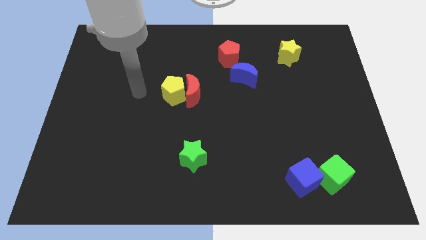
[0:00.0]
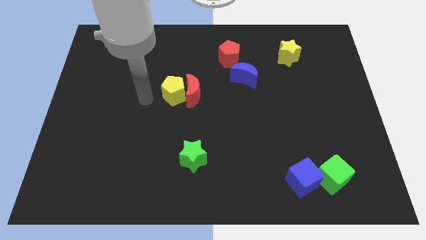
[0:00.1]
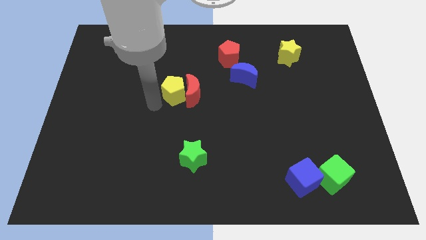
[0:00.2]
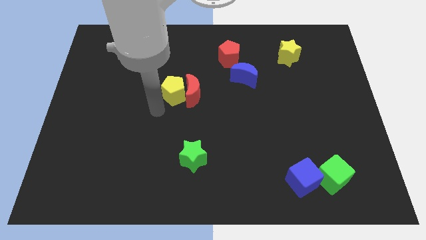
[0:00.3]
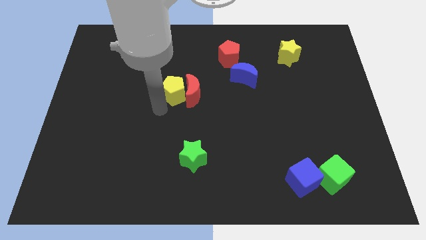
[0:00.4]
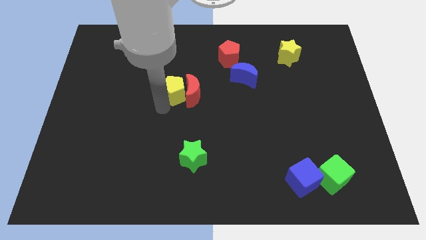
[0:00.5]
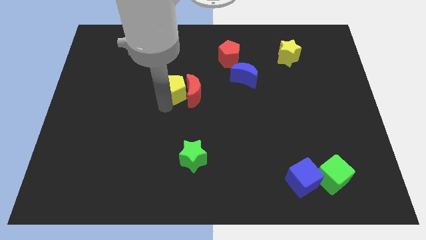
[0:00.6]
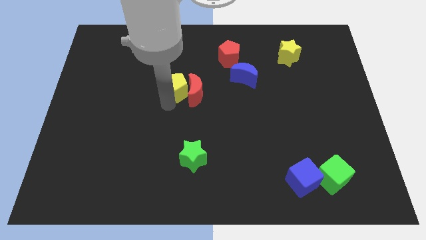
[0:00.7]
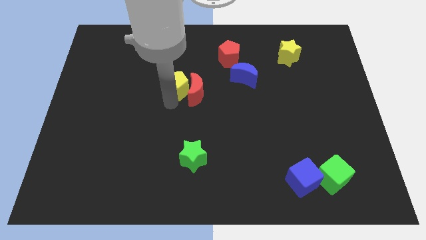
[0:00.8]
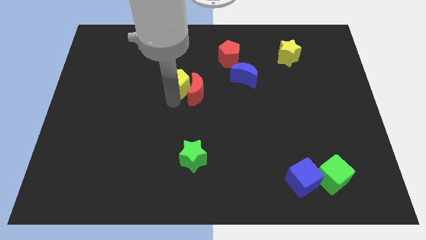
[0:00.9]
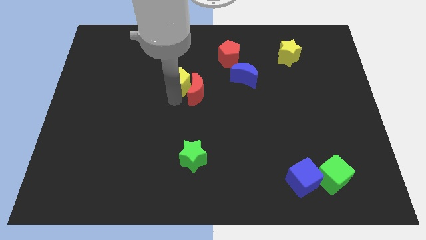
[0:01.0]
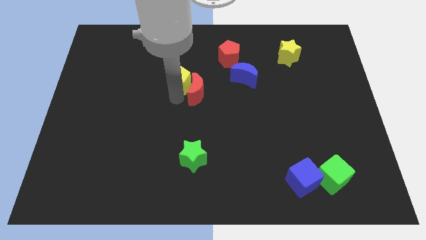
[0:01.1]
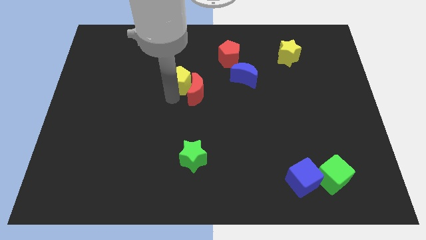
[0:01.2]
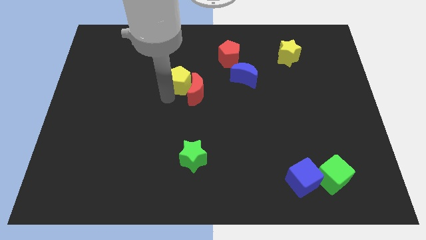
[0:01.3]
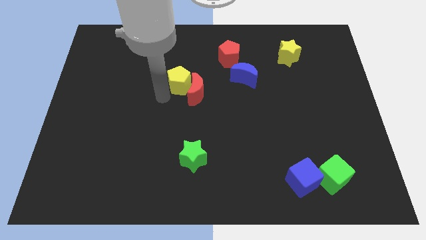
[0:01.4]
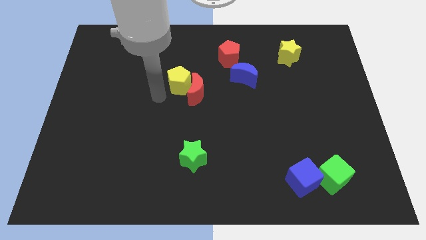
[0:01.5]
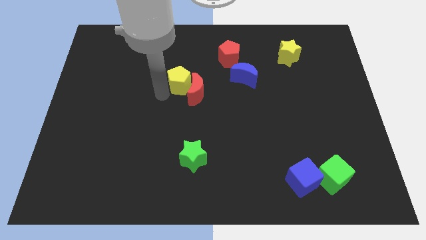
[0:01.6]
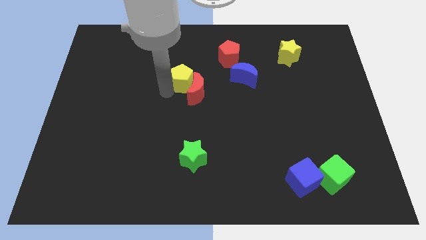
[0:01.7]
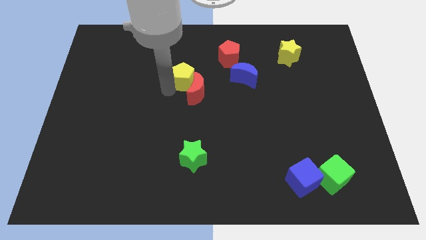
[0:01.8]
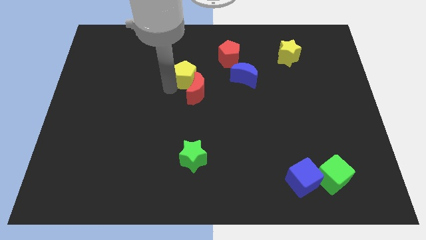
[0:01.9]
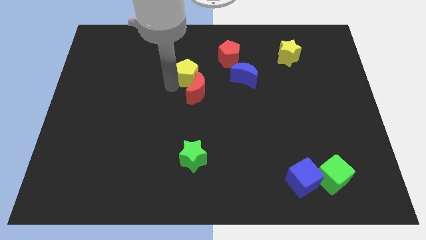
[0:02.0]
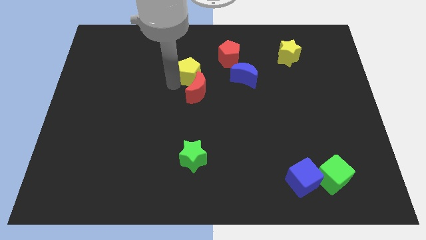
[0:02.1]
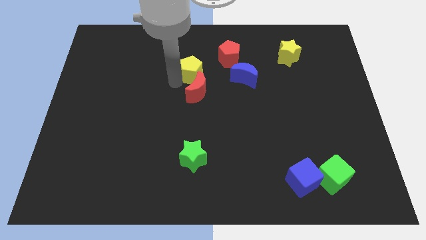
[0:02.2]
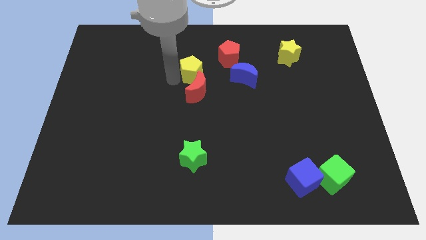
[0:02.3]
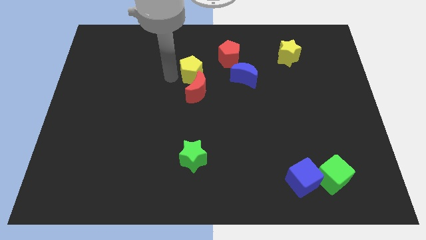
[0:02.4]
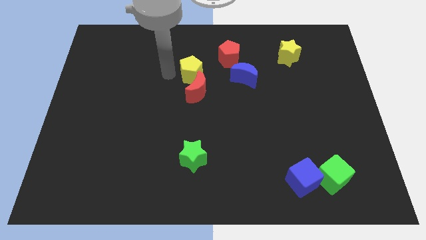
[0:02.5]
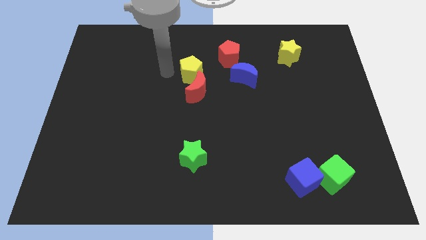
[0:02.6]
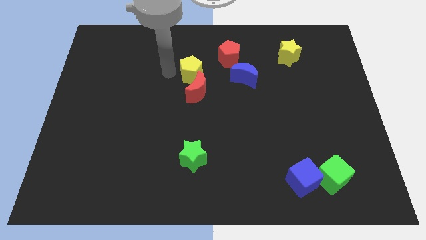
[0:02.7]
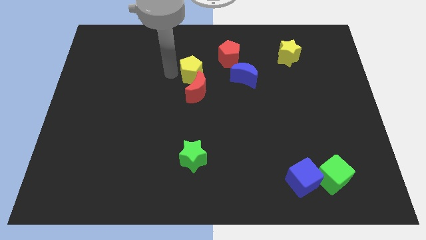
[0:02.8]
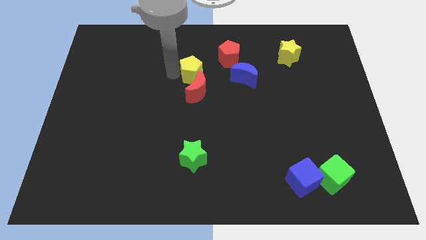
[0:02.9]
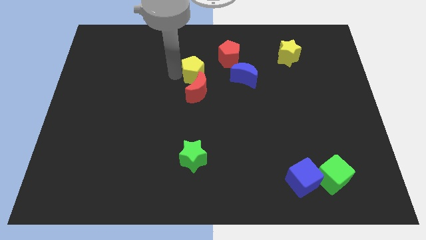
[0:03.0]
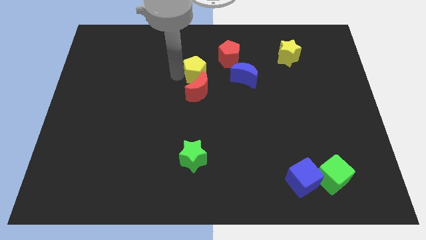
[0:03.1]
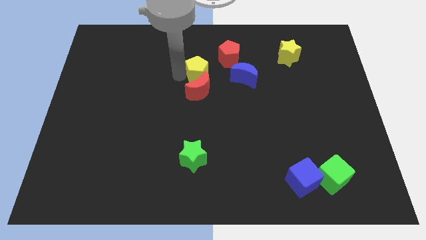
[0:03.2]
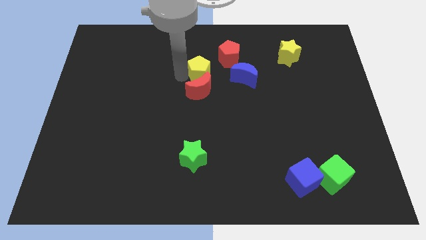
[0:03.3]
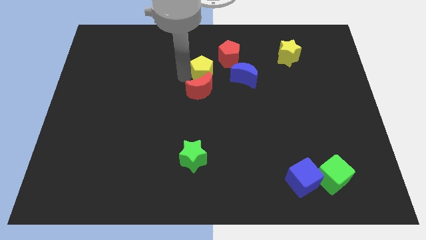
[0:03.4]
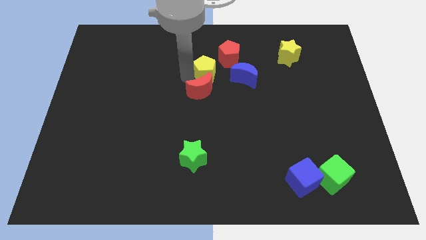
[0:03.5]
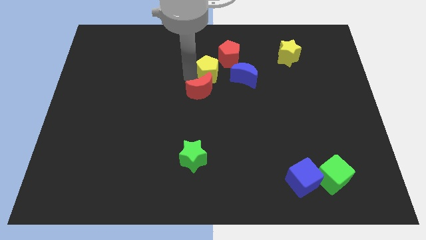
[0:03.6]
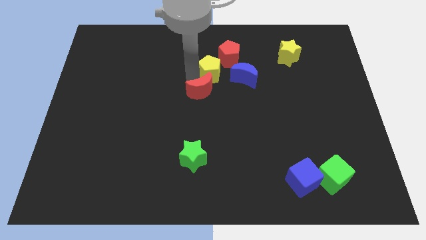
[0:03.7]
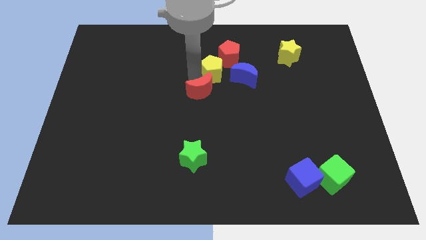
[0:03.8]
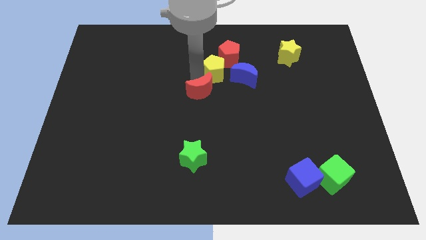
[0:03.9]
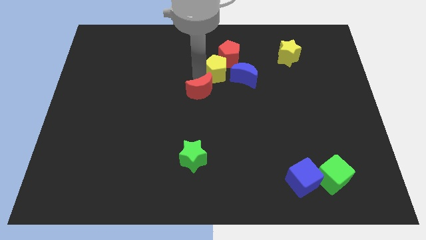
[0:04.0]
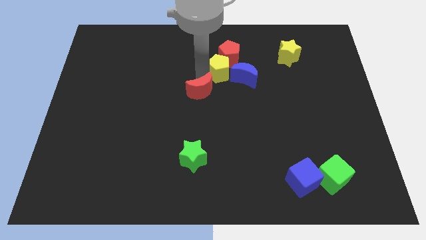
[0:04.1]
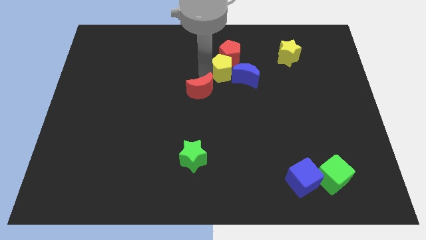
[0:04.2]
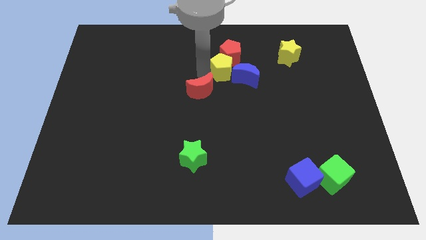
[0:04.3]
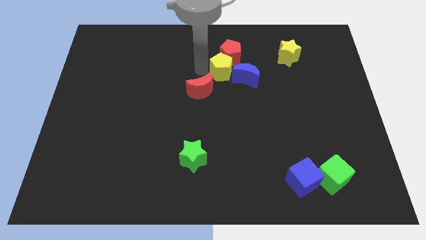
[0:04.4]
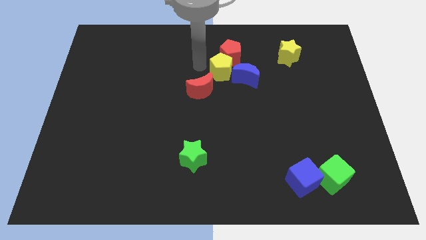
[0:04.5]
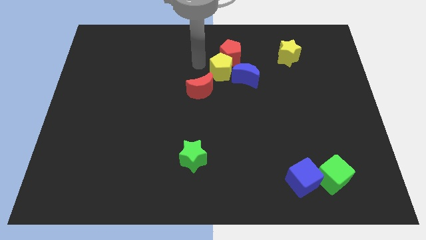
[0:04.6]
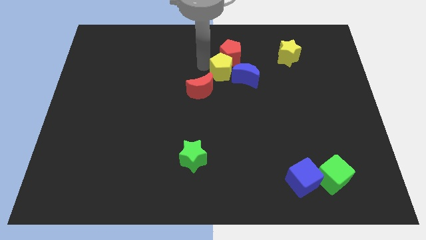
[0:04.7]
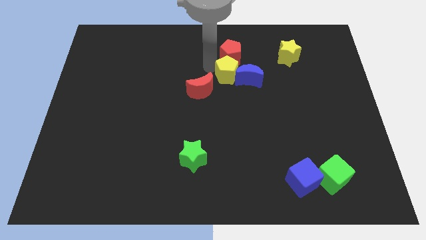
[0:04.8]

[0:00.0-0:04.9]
push the yellow pentagon next to the blue moon

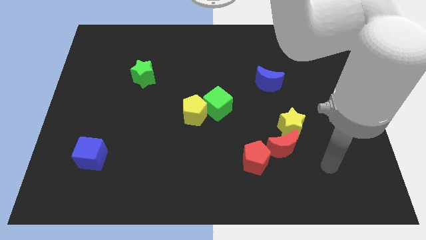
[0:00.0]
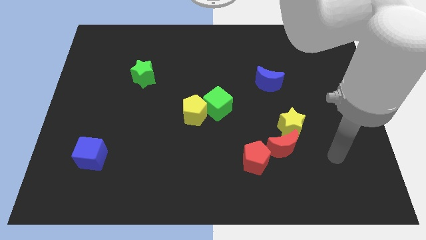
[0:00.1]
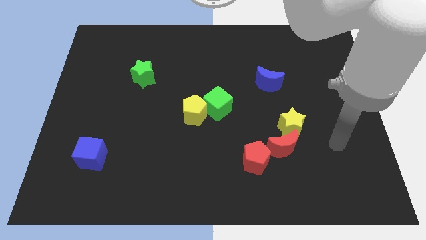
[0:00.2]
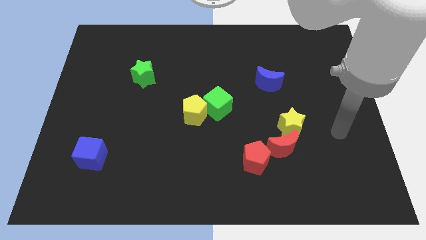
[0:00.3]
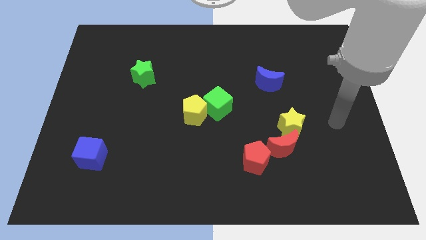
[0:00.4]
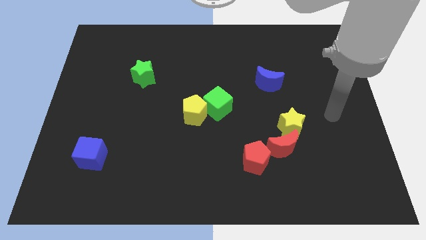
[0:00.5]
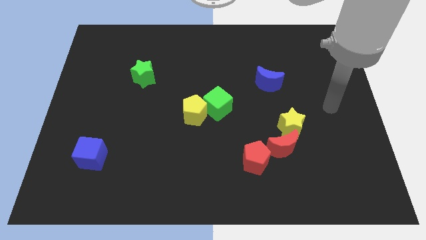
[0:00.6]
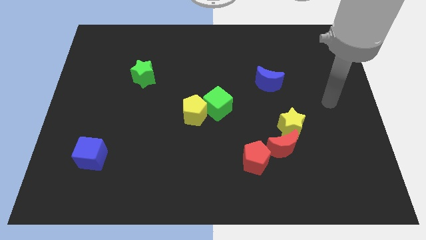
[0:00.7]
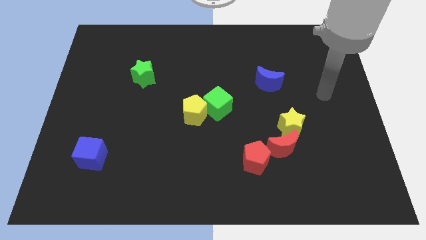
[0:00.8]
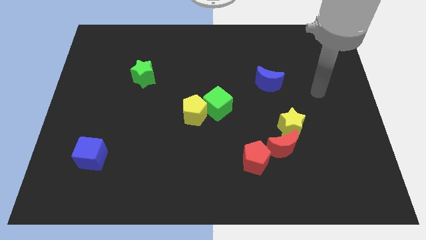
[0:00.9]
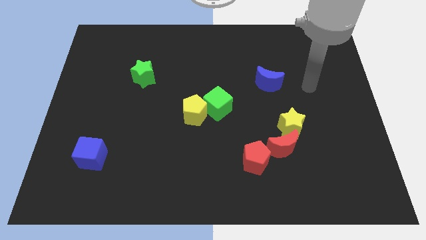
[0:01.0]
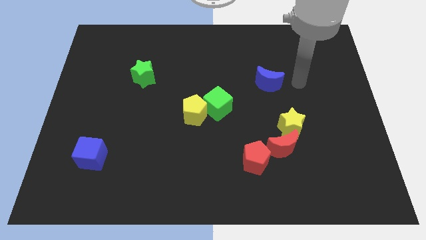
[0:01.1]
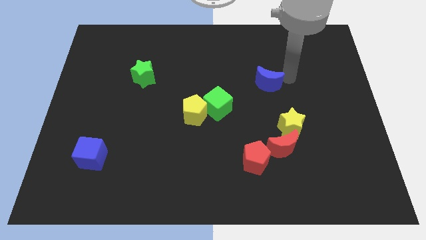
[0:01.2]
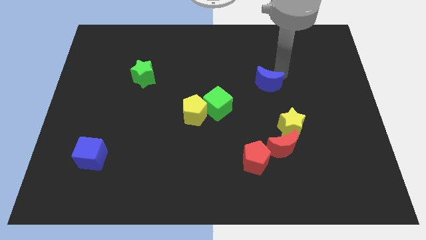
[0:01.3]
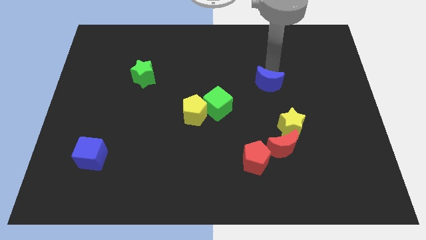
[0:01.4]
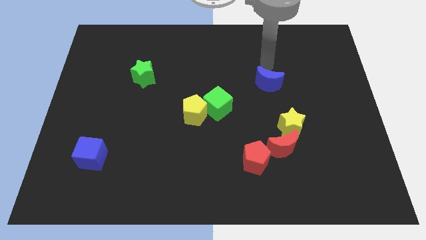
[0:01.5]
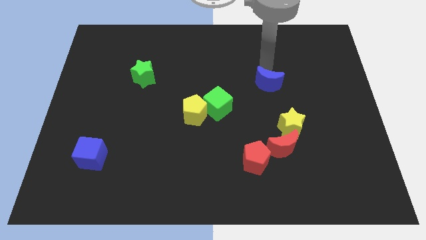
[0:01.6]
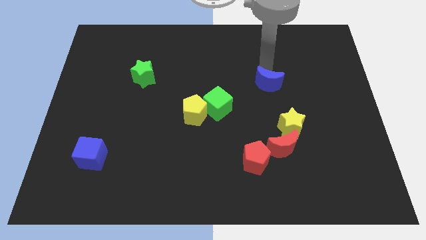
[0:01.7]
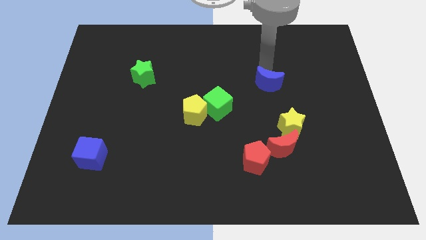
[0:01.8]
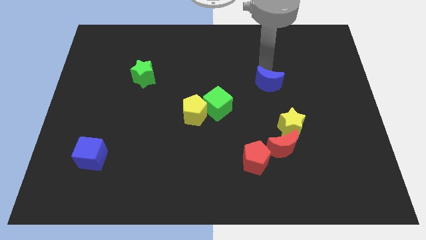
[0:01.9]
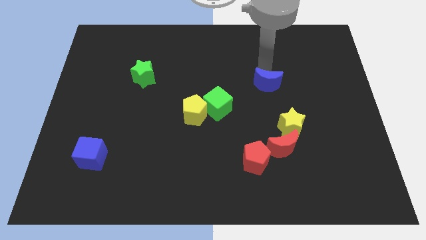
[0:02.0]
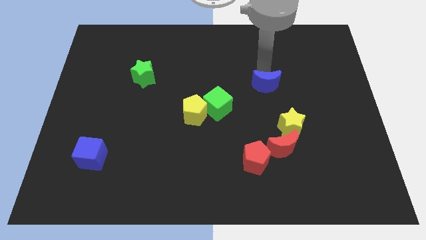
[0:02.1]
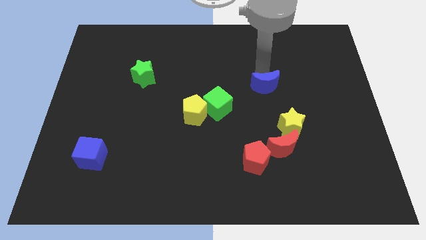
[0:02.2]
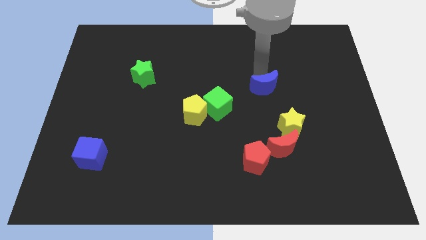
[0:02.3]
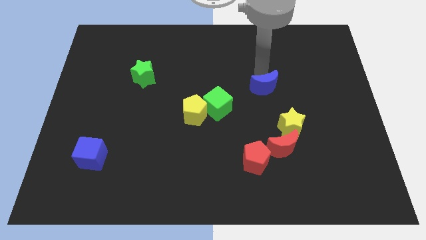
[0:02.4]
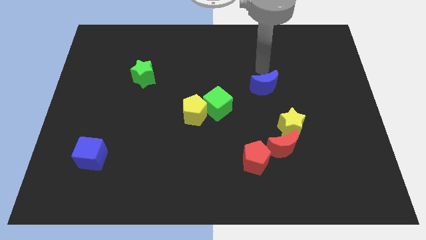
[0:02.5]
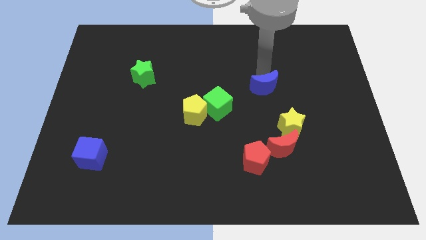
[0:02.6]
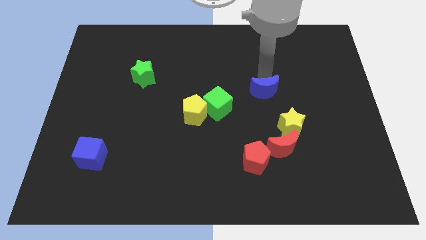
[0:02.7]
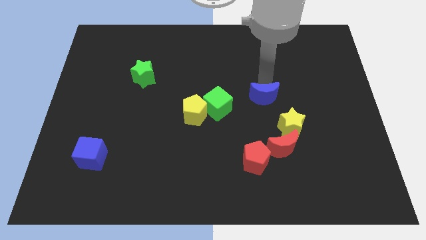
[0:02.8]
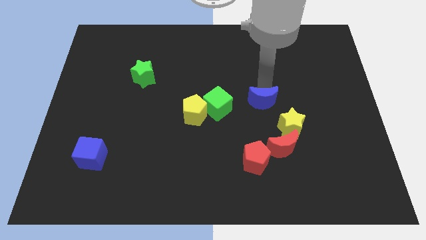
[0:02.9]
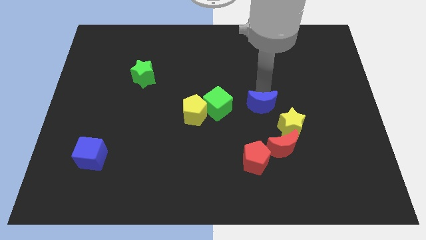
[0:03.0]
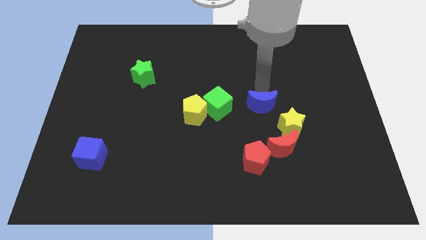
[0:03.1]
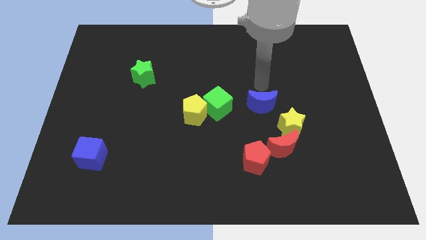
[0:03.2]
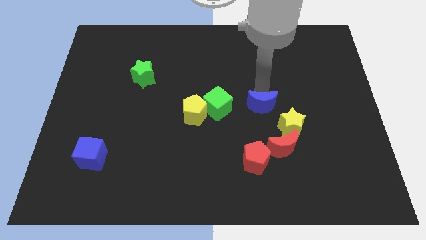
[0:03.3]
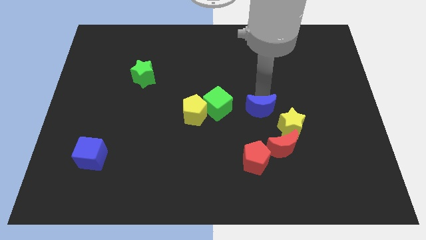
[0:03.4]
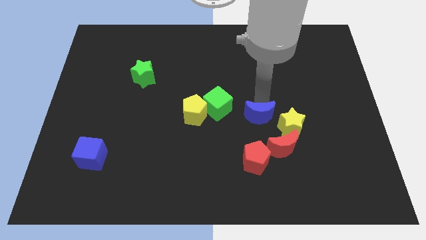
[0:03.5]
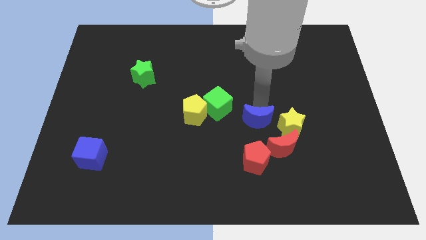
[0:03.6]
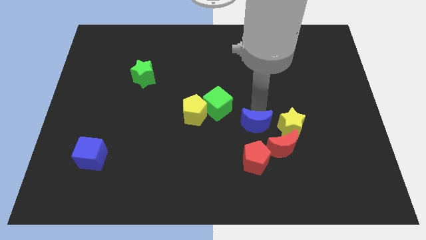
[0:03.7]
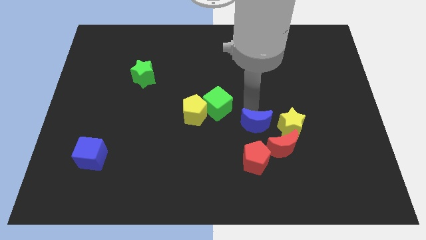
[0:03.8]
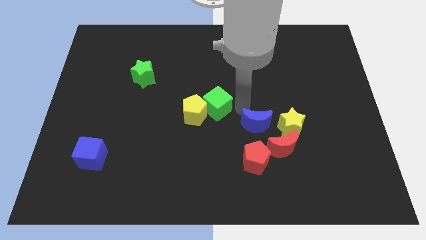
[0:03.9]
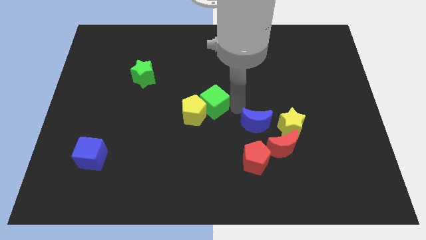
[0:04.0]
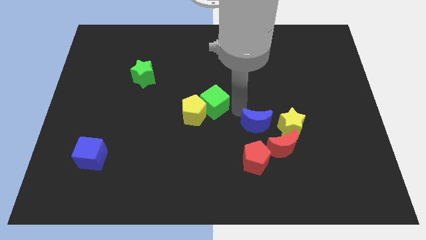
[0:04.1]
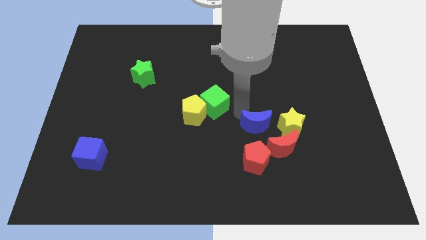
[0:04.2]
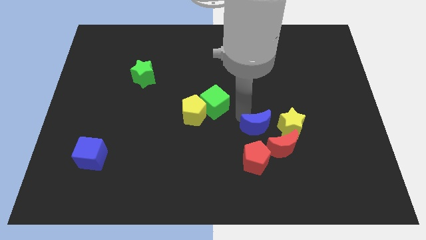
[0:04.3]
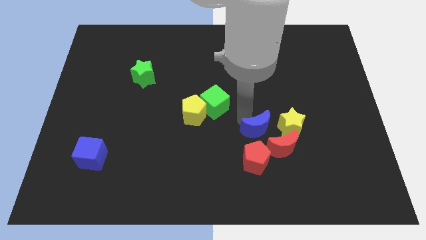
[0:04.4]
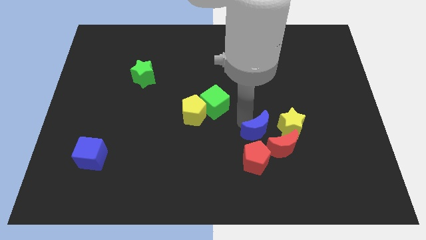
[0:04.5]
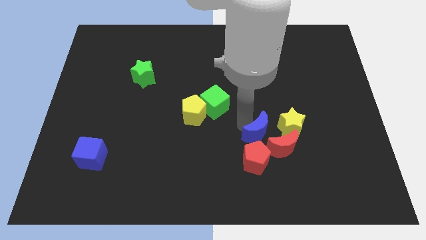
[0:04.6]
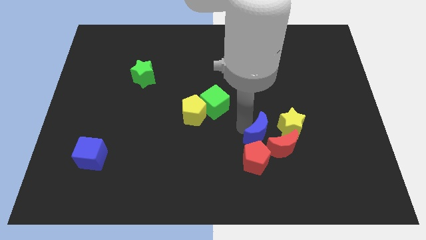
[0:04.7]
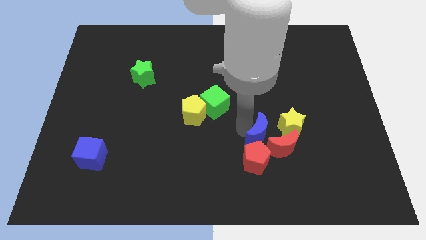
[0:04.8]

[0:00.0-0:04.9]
slide the blue moon towards the red moon
